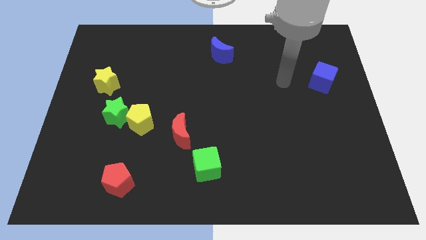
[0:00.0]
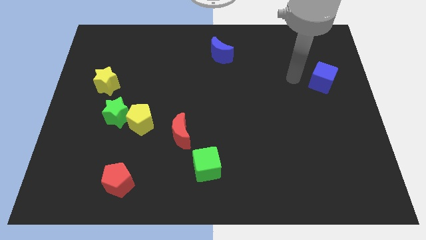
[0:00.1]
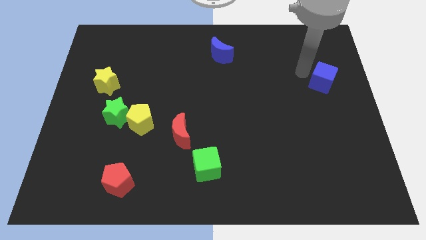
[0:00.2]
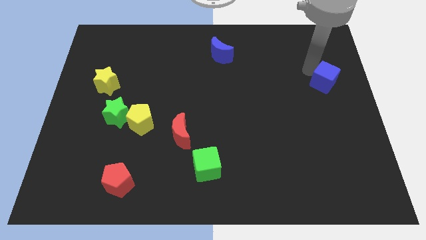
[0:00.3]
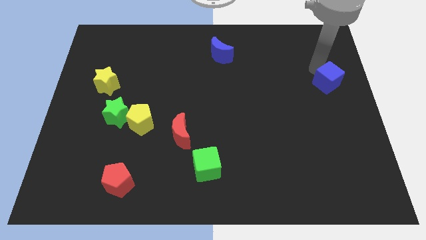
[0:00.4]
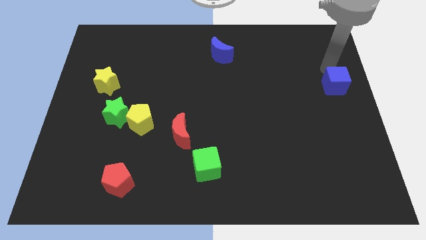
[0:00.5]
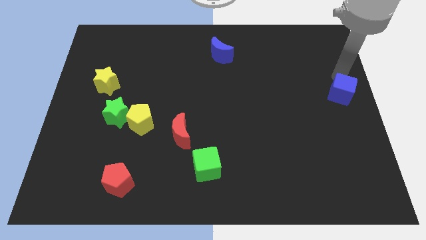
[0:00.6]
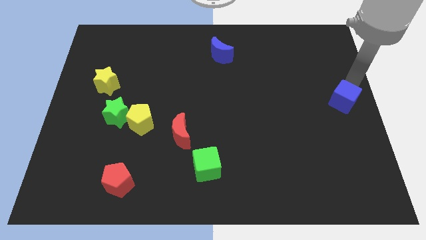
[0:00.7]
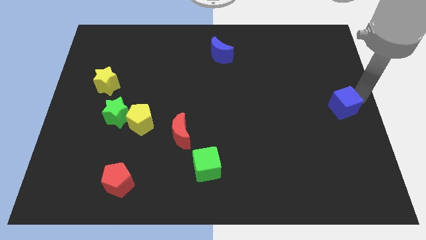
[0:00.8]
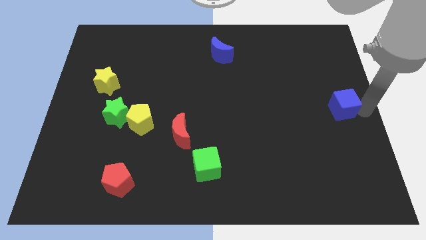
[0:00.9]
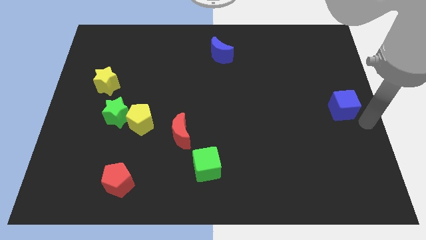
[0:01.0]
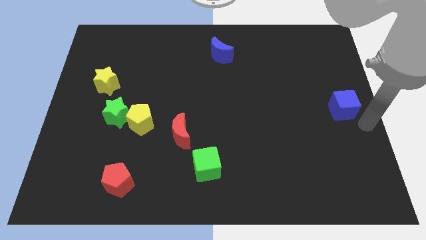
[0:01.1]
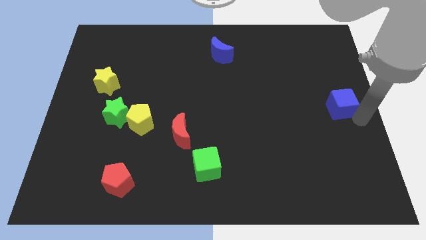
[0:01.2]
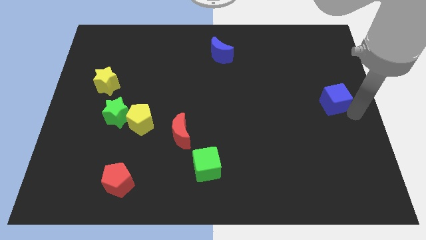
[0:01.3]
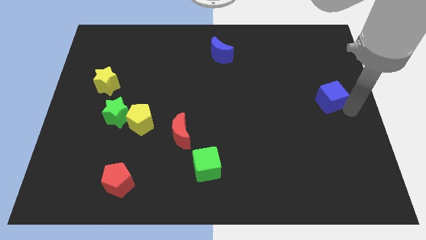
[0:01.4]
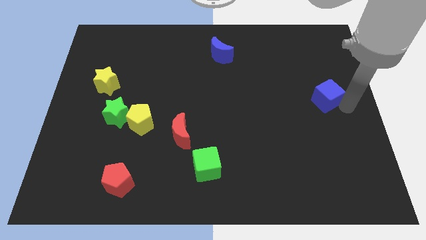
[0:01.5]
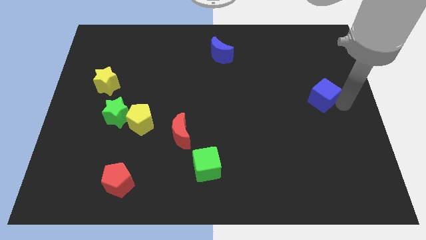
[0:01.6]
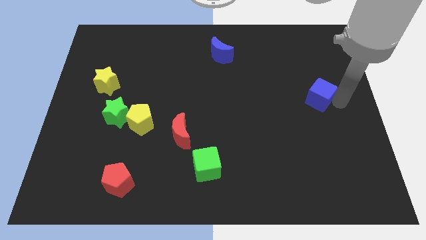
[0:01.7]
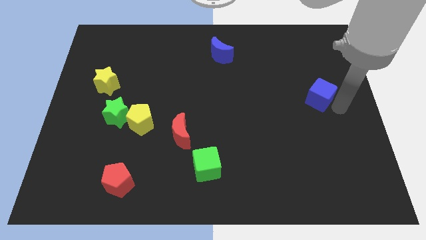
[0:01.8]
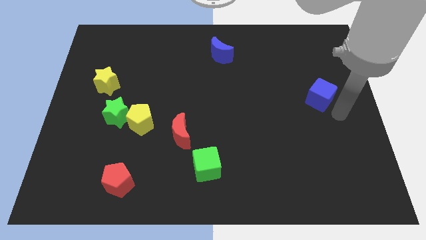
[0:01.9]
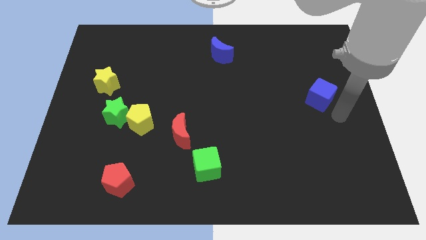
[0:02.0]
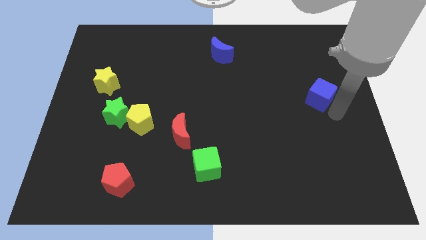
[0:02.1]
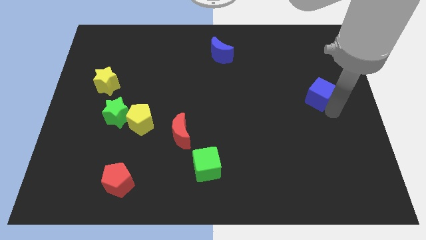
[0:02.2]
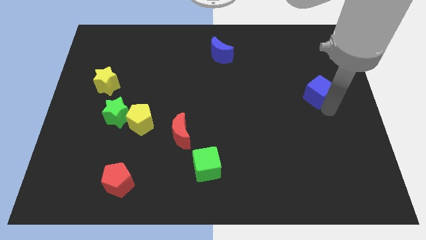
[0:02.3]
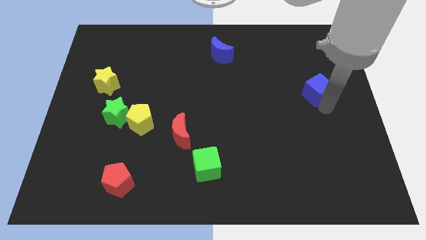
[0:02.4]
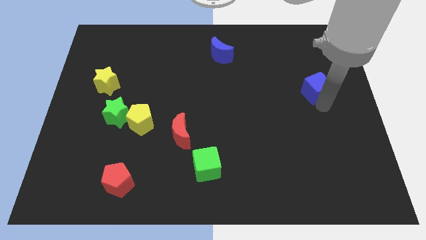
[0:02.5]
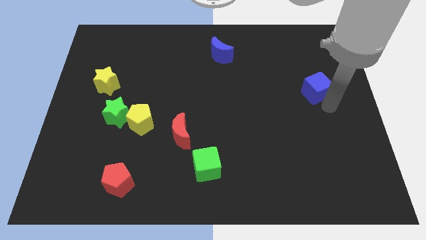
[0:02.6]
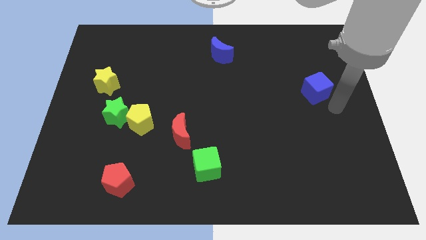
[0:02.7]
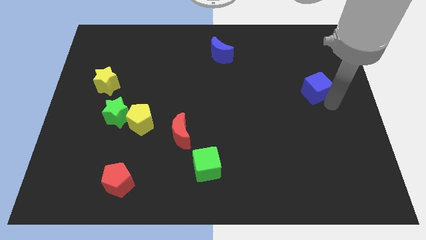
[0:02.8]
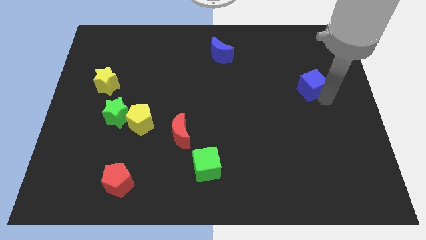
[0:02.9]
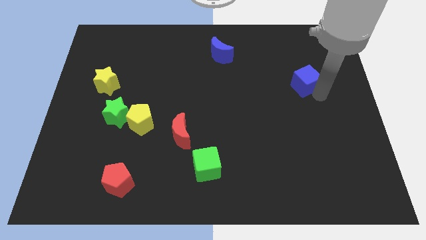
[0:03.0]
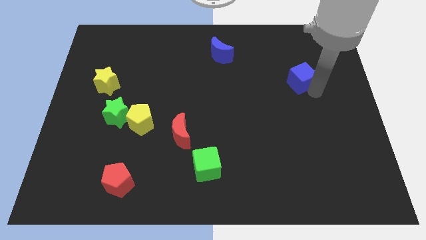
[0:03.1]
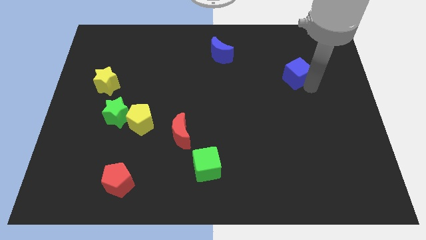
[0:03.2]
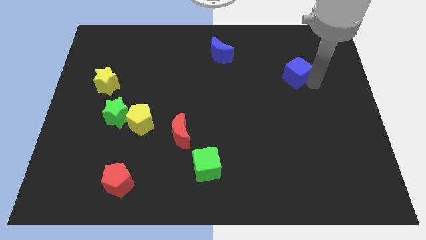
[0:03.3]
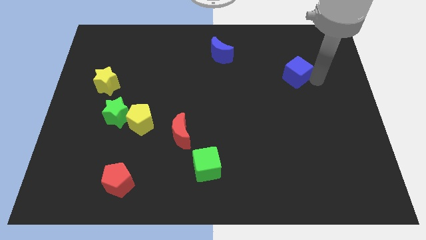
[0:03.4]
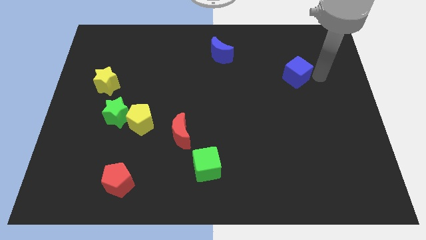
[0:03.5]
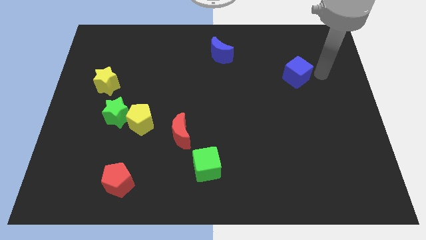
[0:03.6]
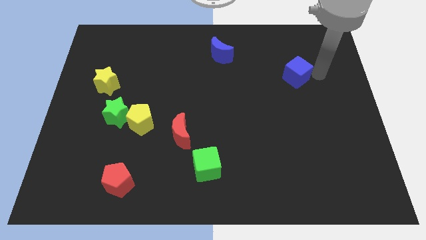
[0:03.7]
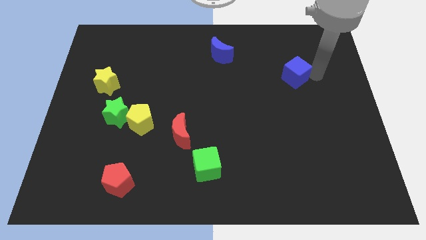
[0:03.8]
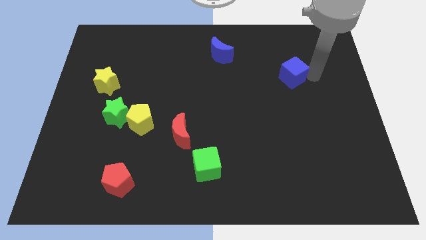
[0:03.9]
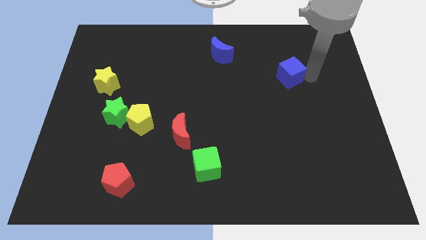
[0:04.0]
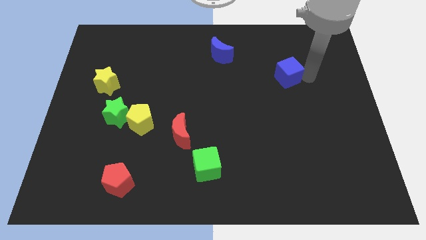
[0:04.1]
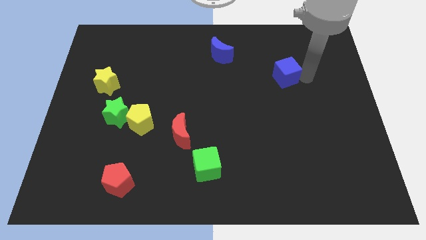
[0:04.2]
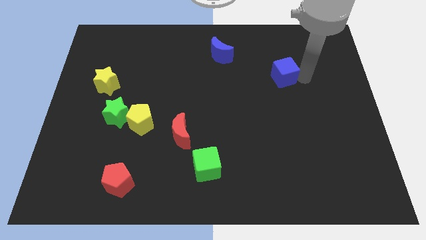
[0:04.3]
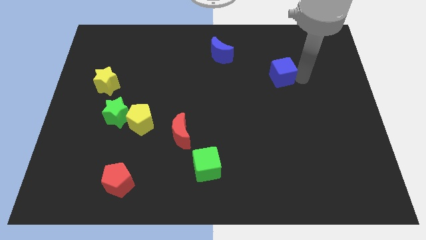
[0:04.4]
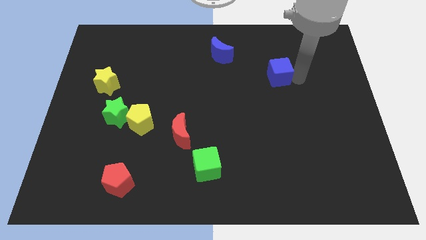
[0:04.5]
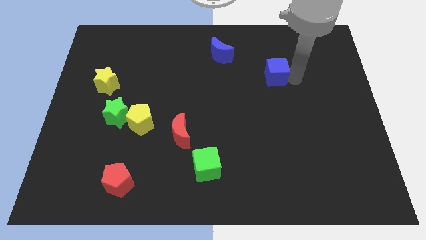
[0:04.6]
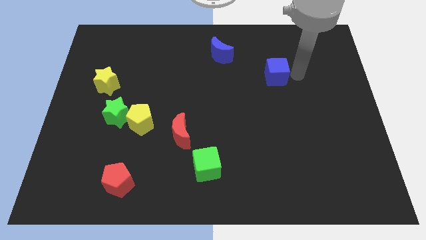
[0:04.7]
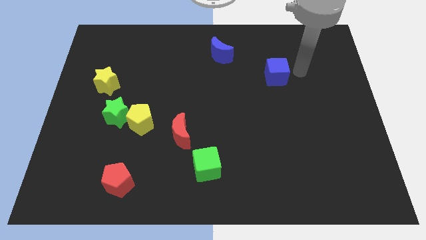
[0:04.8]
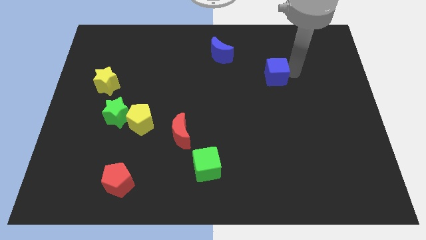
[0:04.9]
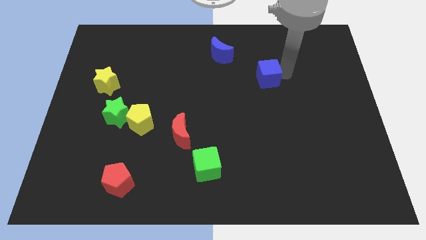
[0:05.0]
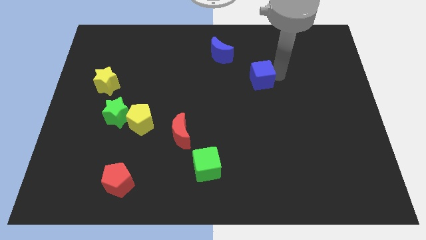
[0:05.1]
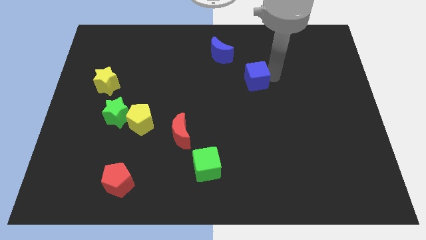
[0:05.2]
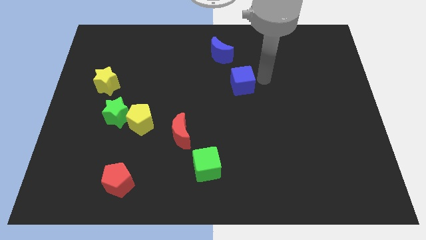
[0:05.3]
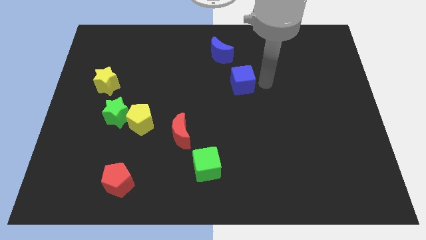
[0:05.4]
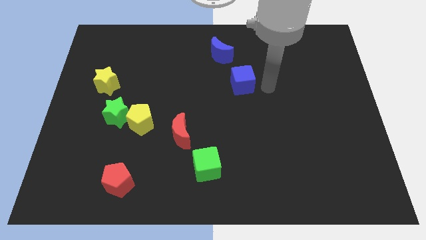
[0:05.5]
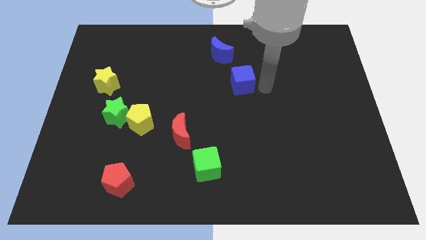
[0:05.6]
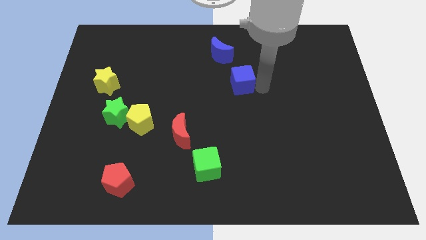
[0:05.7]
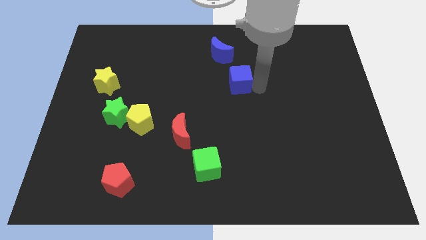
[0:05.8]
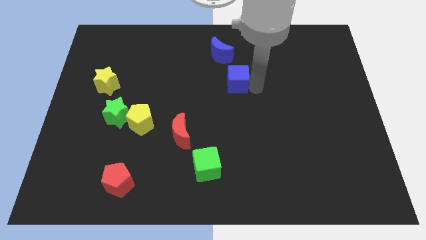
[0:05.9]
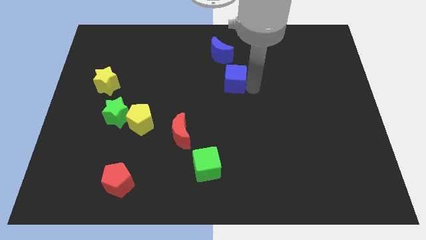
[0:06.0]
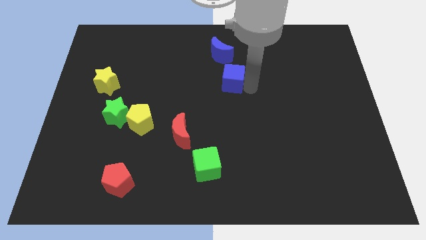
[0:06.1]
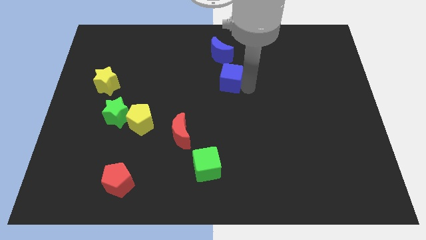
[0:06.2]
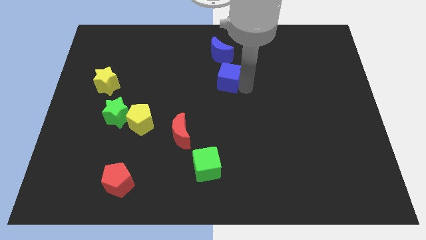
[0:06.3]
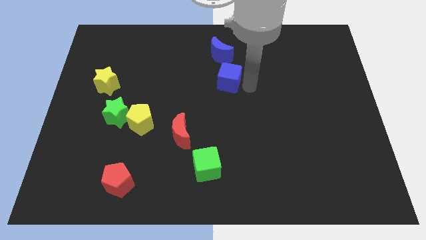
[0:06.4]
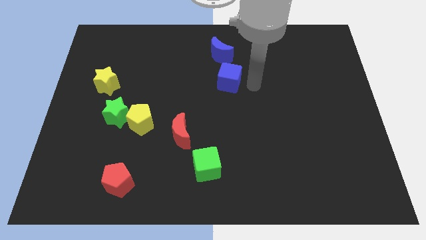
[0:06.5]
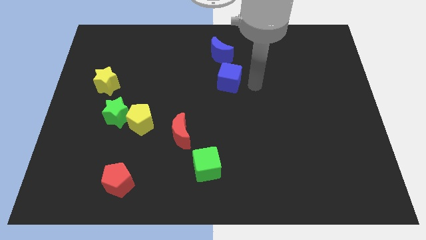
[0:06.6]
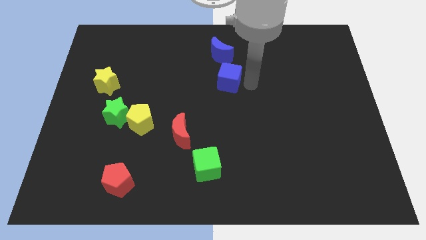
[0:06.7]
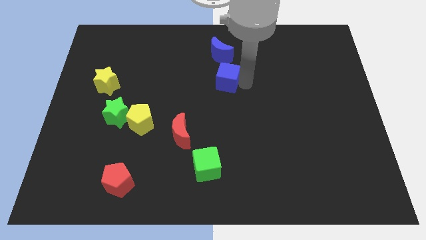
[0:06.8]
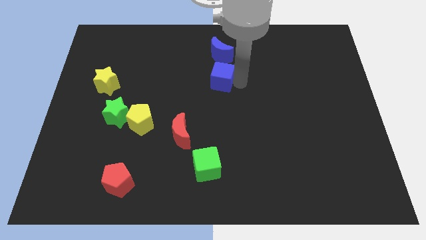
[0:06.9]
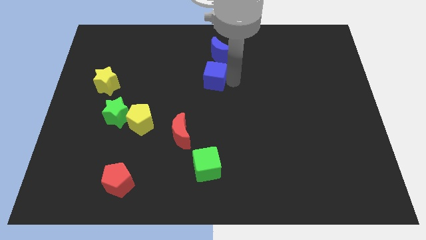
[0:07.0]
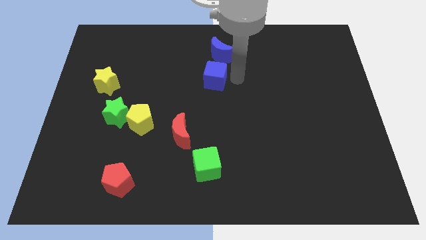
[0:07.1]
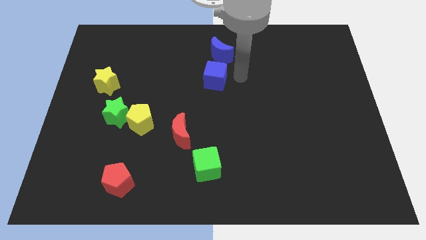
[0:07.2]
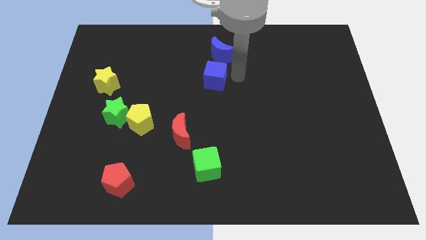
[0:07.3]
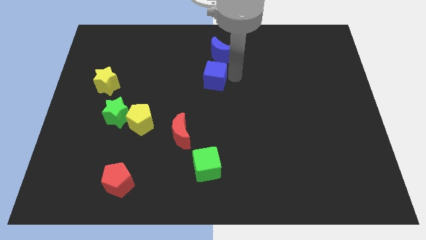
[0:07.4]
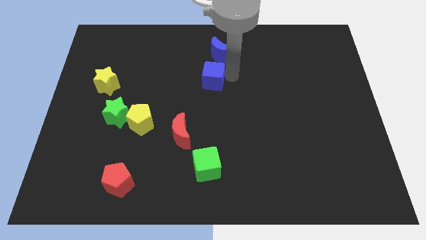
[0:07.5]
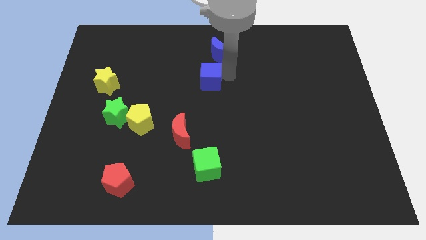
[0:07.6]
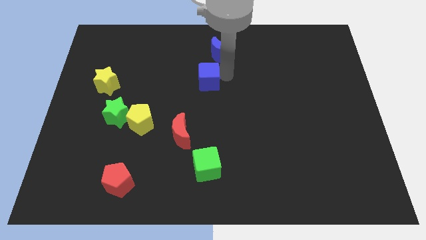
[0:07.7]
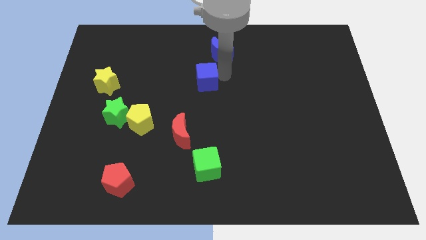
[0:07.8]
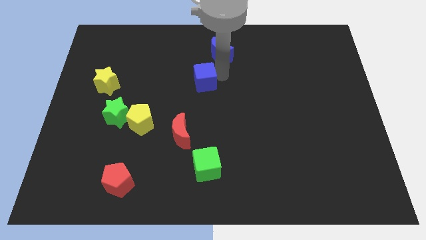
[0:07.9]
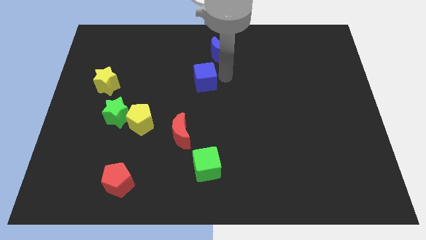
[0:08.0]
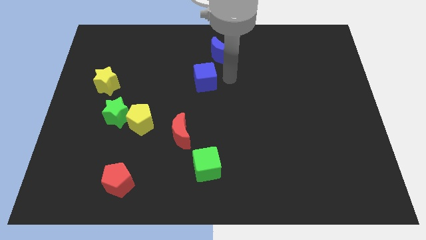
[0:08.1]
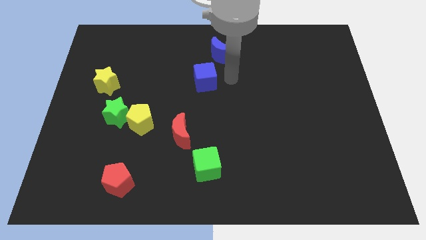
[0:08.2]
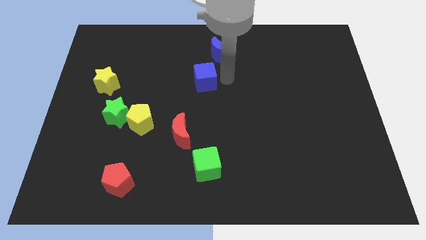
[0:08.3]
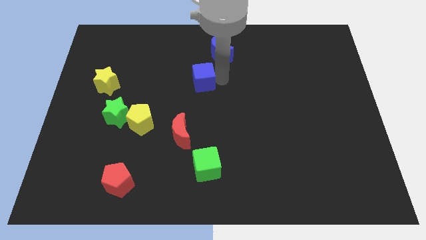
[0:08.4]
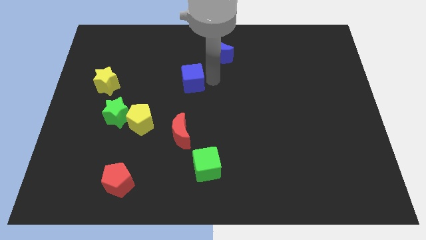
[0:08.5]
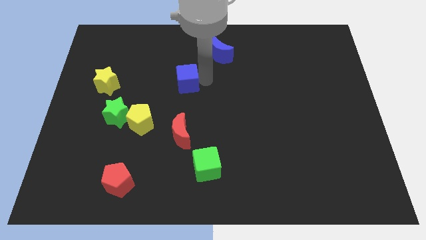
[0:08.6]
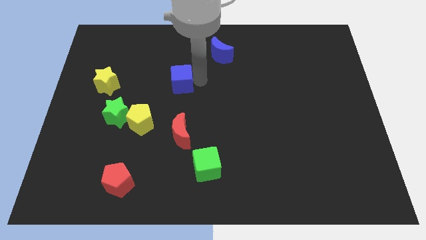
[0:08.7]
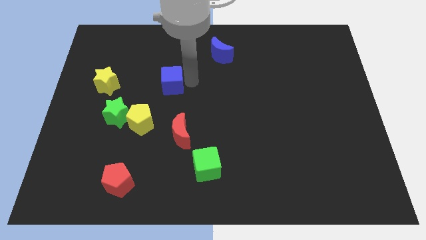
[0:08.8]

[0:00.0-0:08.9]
move the blue cube just right of the yellow star
